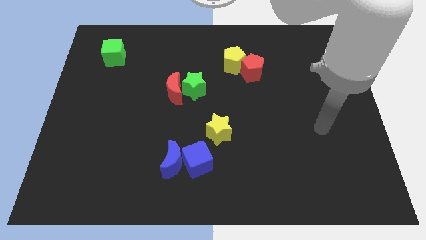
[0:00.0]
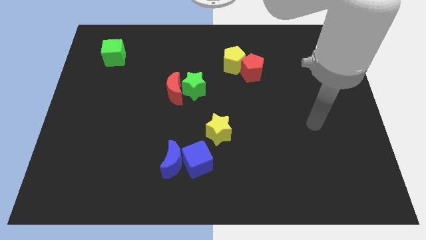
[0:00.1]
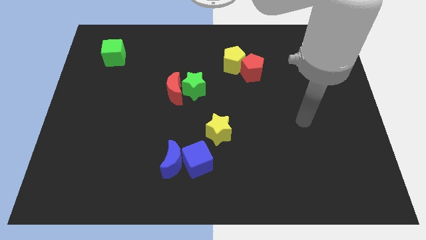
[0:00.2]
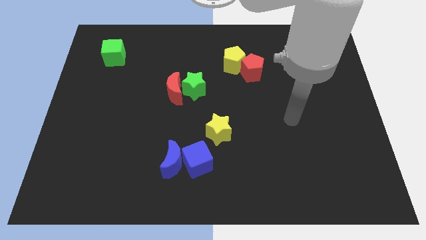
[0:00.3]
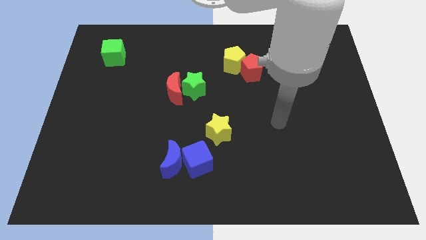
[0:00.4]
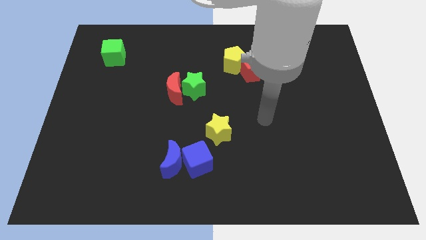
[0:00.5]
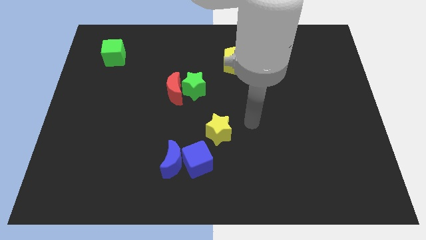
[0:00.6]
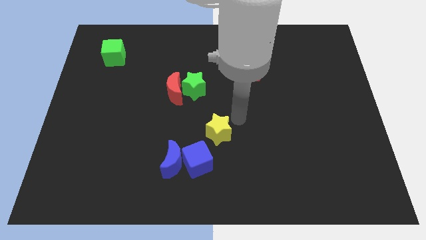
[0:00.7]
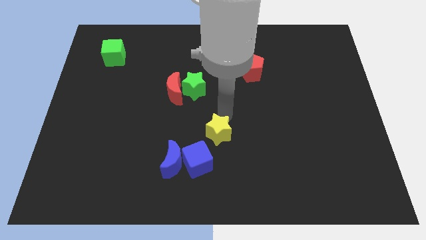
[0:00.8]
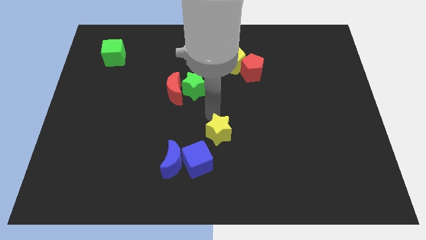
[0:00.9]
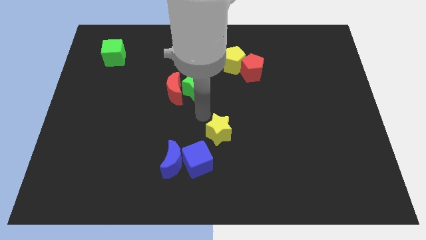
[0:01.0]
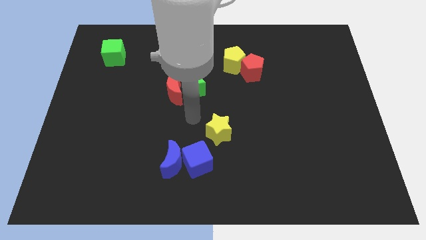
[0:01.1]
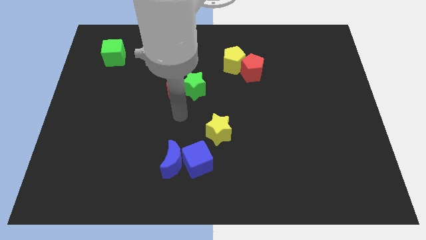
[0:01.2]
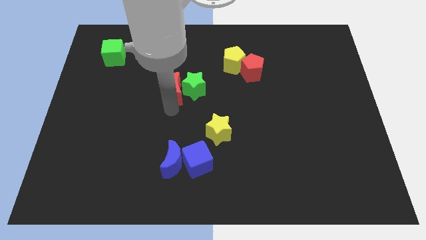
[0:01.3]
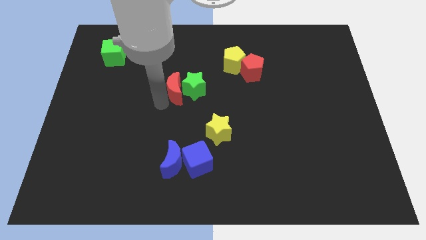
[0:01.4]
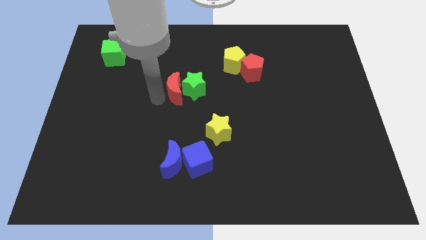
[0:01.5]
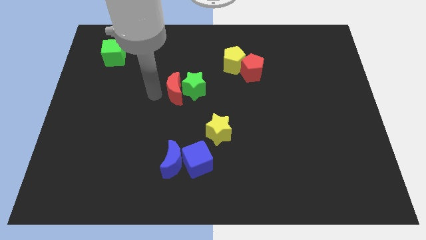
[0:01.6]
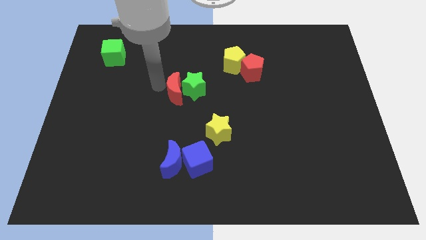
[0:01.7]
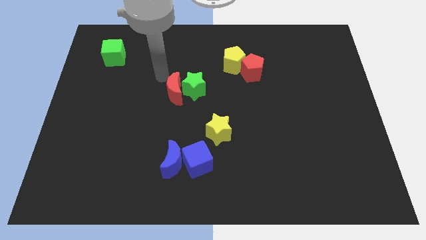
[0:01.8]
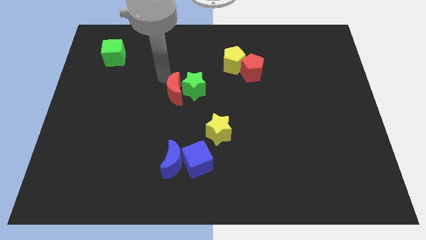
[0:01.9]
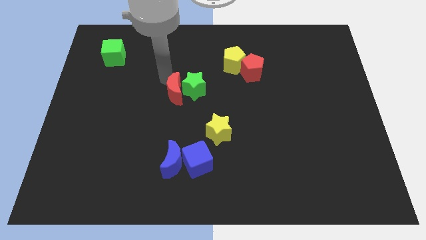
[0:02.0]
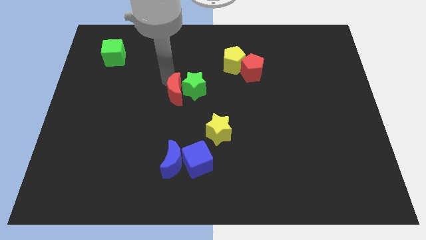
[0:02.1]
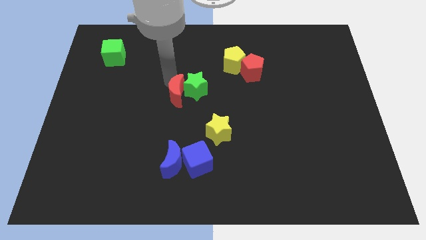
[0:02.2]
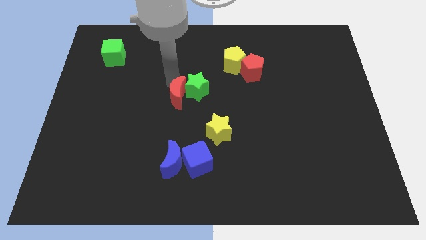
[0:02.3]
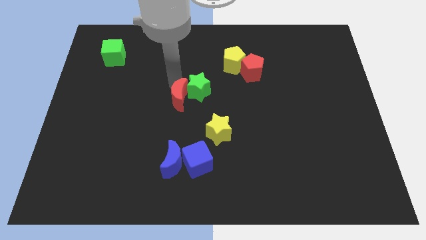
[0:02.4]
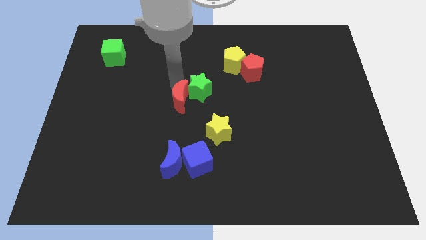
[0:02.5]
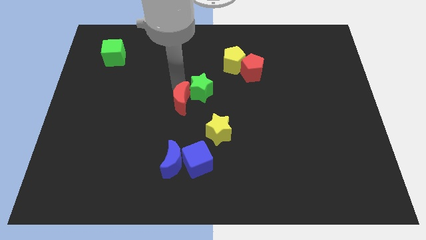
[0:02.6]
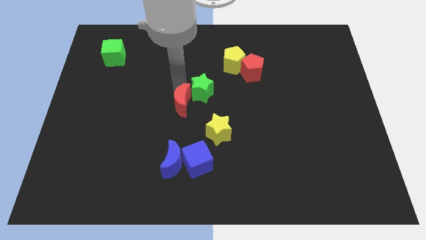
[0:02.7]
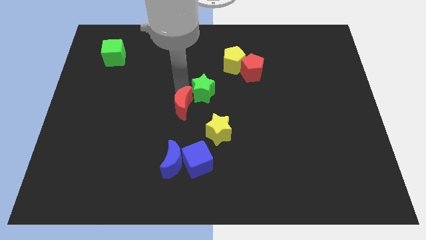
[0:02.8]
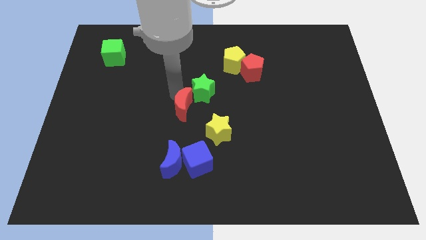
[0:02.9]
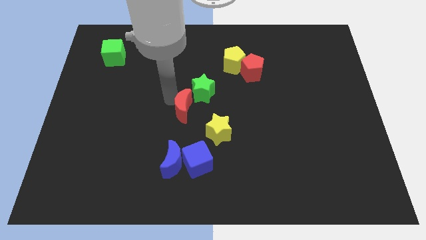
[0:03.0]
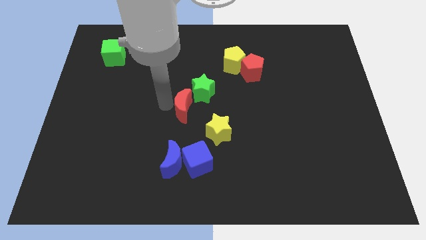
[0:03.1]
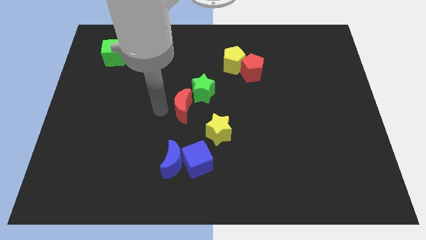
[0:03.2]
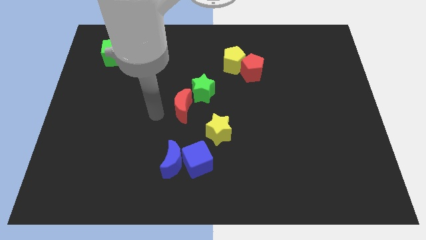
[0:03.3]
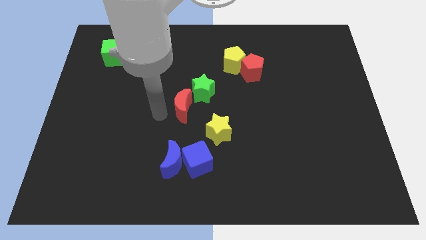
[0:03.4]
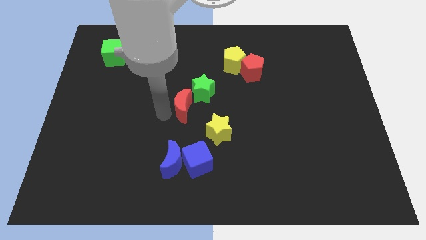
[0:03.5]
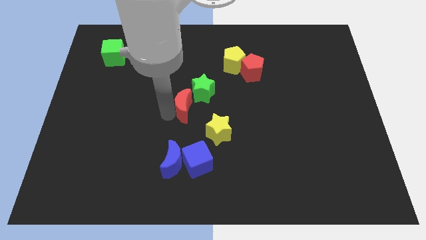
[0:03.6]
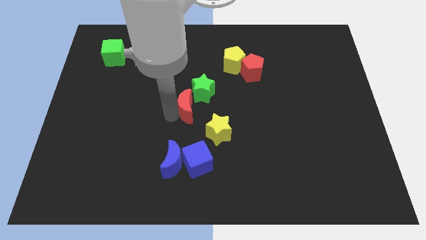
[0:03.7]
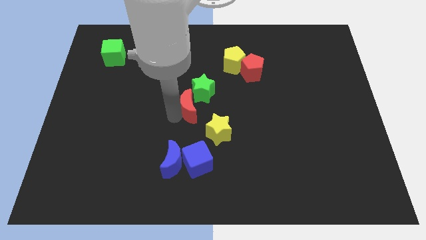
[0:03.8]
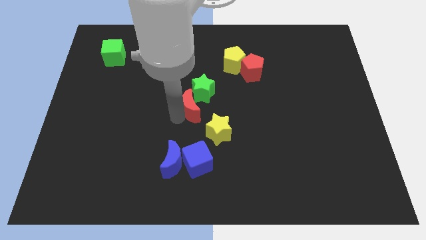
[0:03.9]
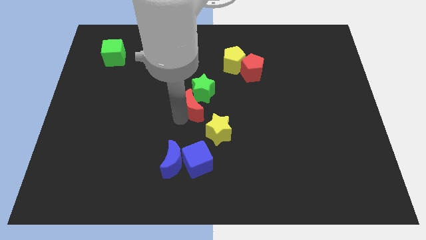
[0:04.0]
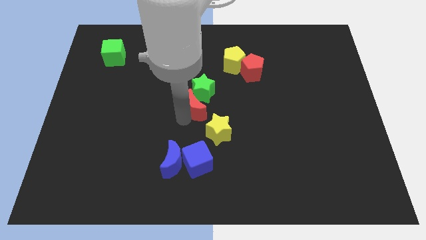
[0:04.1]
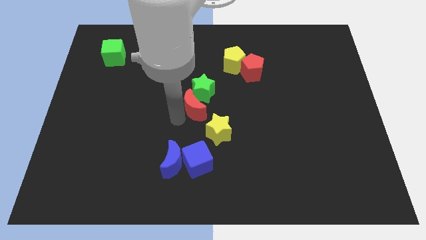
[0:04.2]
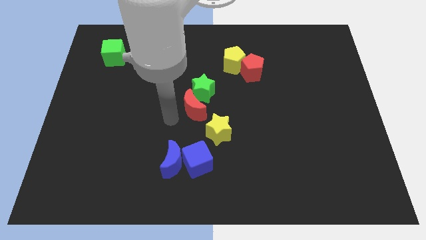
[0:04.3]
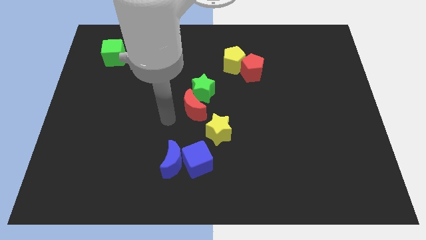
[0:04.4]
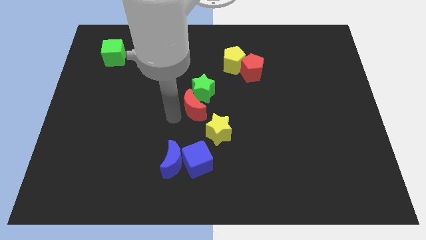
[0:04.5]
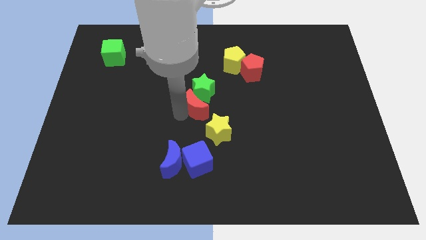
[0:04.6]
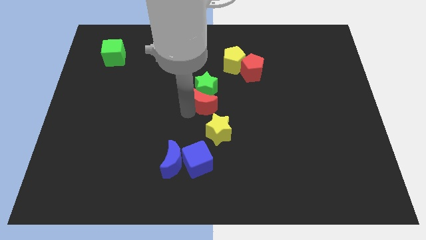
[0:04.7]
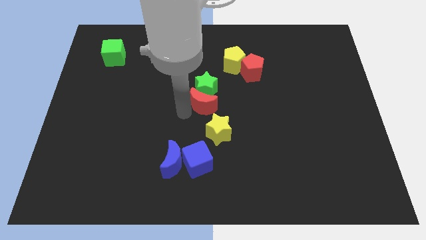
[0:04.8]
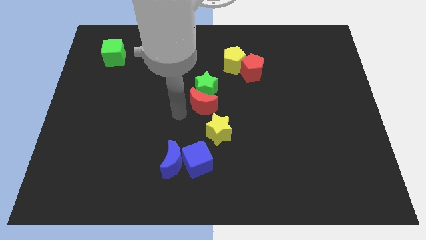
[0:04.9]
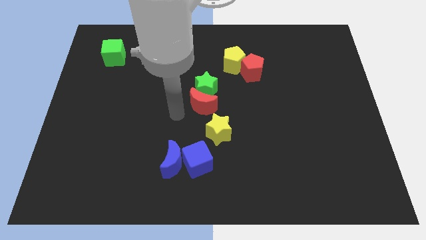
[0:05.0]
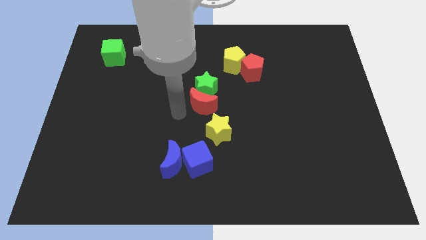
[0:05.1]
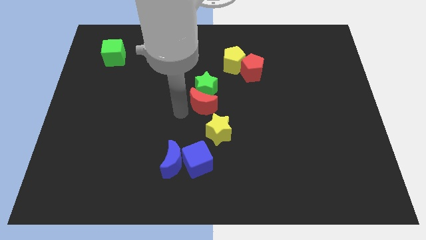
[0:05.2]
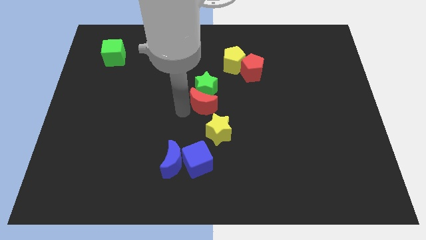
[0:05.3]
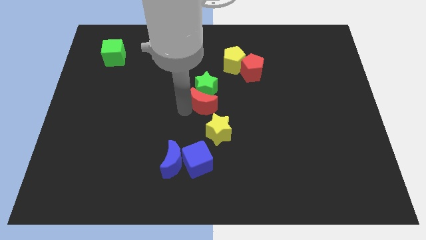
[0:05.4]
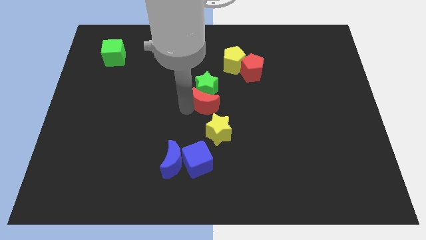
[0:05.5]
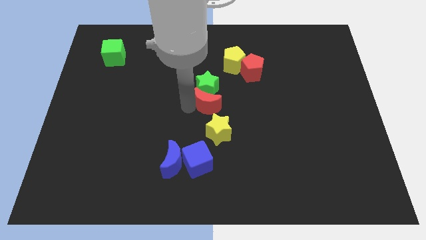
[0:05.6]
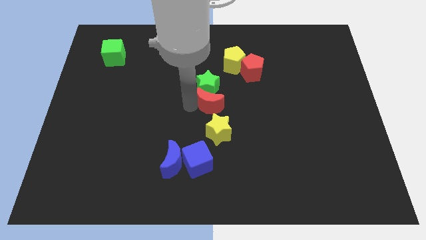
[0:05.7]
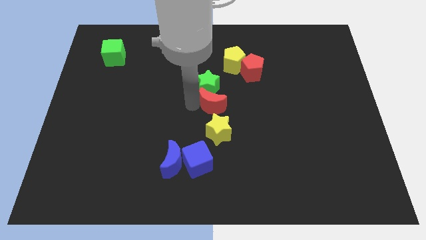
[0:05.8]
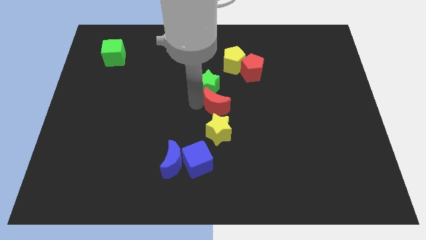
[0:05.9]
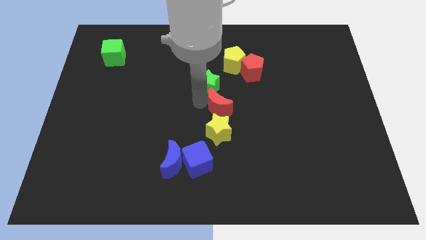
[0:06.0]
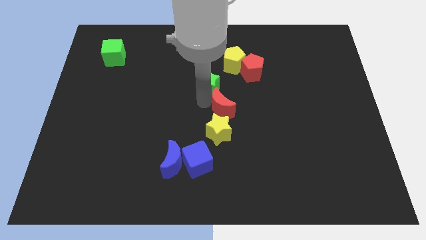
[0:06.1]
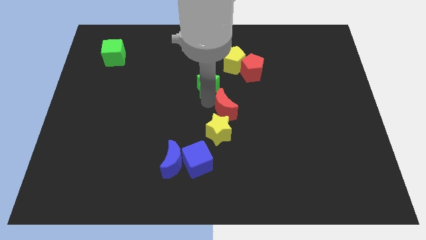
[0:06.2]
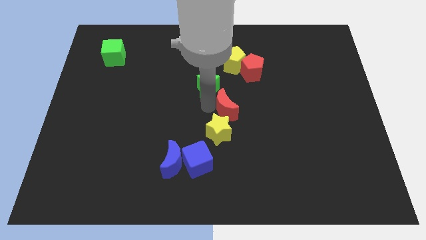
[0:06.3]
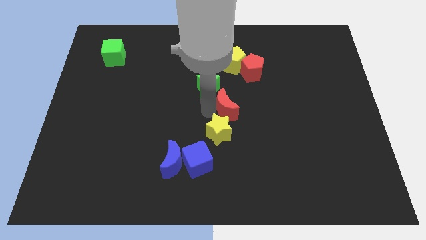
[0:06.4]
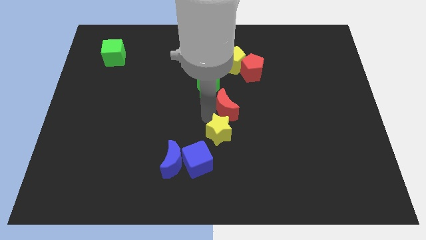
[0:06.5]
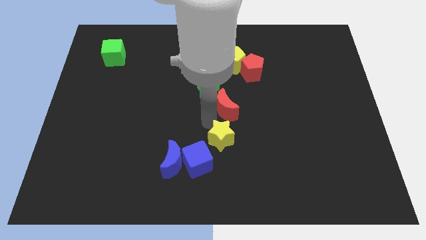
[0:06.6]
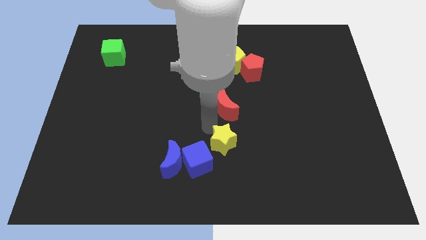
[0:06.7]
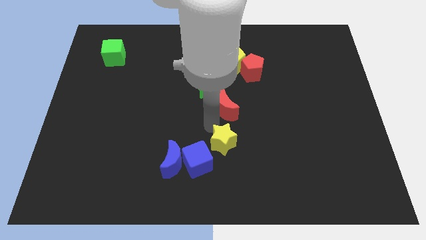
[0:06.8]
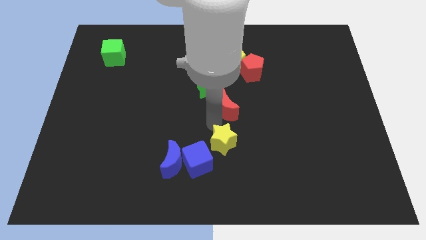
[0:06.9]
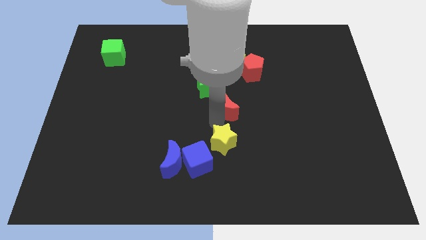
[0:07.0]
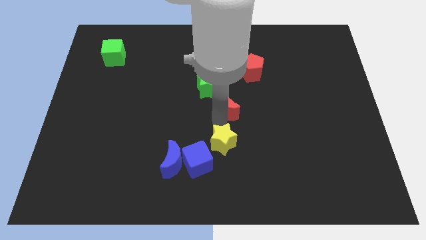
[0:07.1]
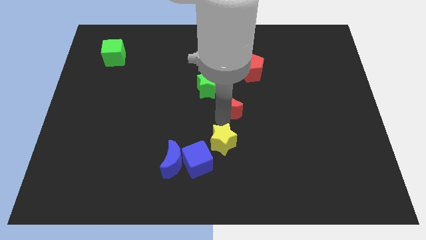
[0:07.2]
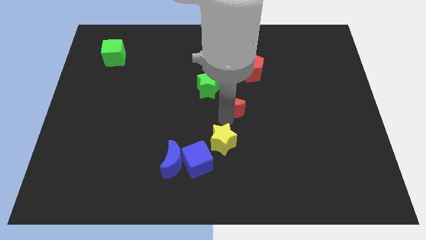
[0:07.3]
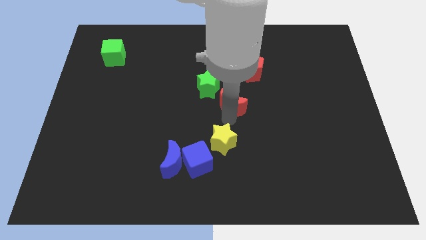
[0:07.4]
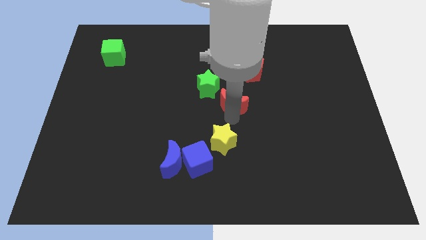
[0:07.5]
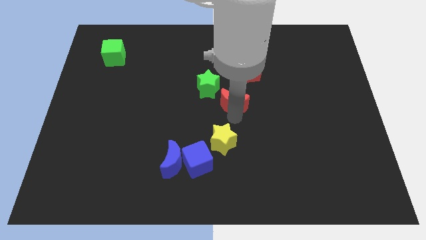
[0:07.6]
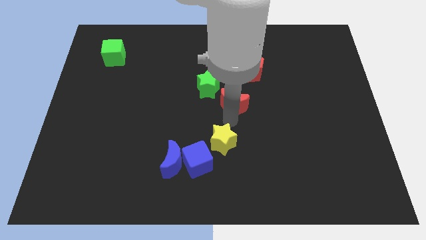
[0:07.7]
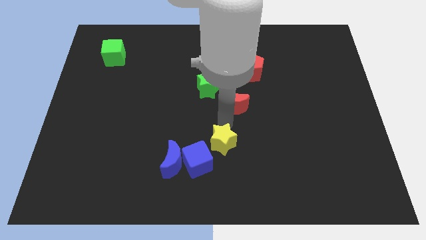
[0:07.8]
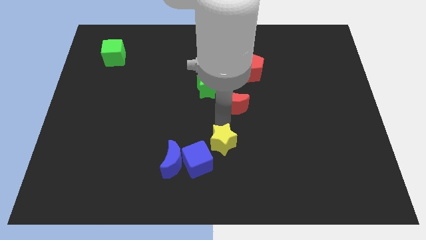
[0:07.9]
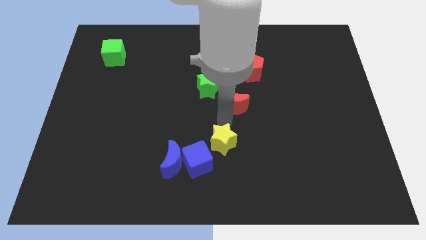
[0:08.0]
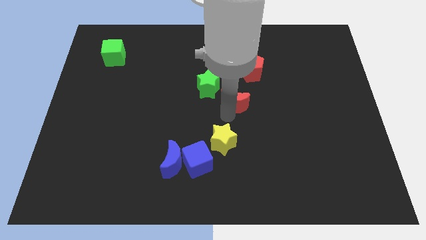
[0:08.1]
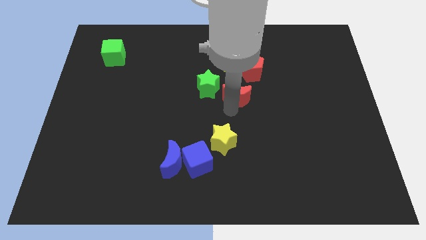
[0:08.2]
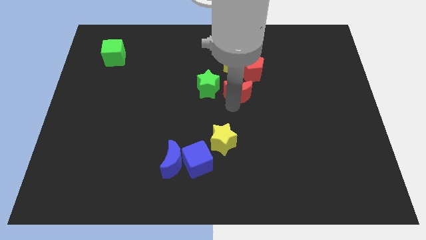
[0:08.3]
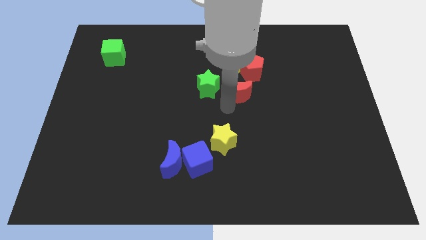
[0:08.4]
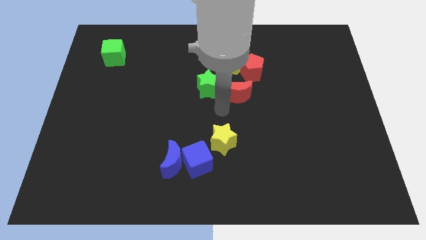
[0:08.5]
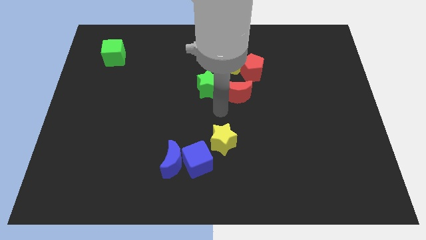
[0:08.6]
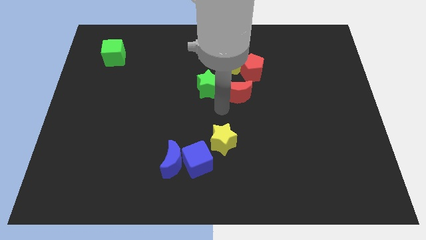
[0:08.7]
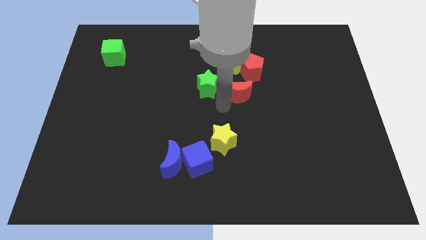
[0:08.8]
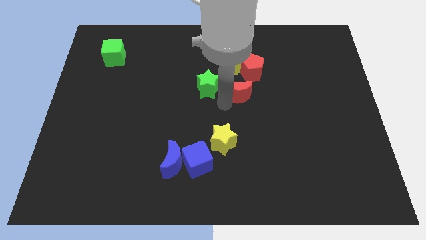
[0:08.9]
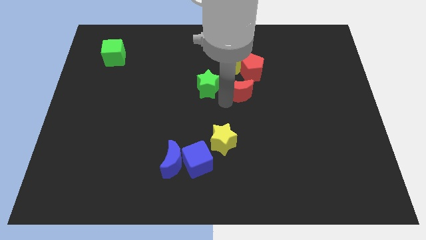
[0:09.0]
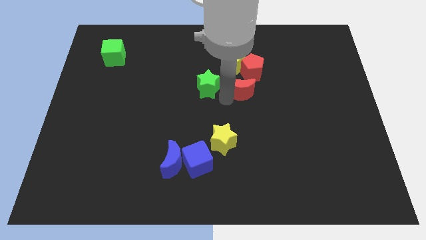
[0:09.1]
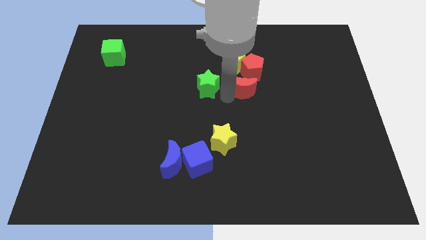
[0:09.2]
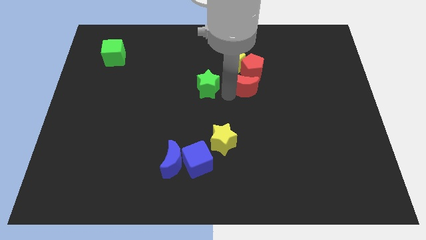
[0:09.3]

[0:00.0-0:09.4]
slide the red moon to the bottom right side of the yellow pentagon
